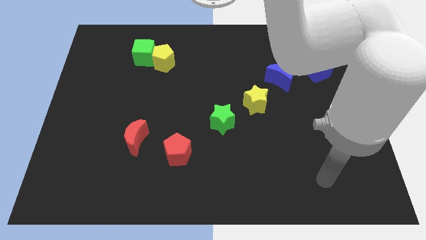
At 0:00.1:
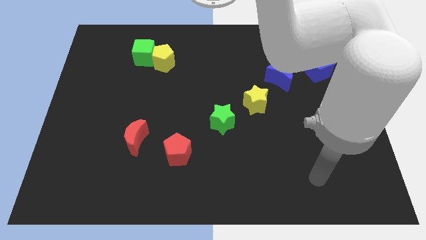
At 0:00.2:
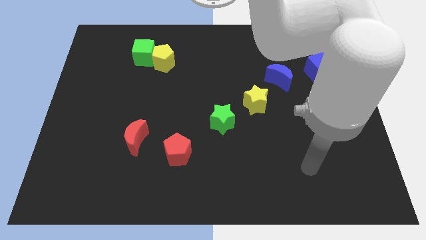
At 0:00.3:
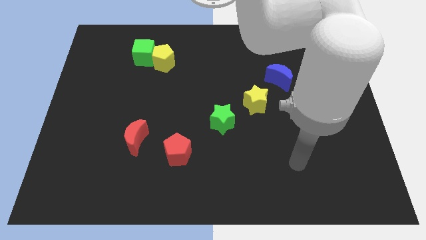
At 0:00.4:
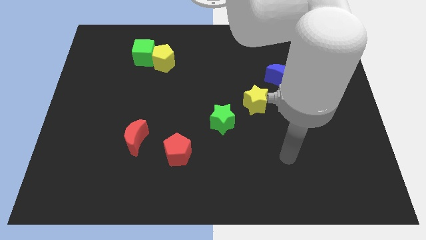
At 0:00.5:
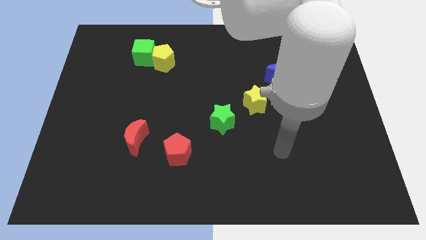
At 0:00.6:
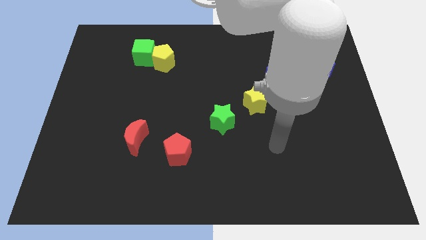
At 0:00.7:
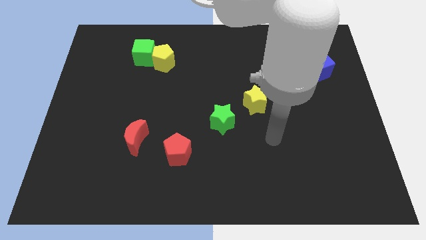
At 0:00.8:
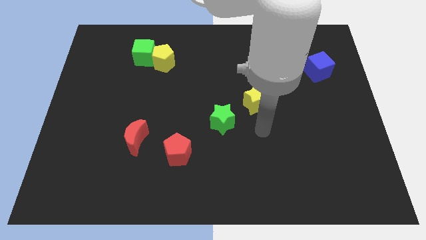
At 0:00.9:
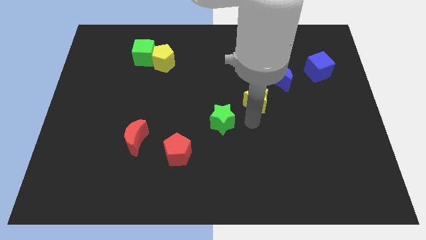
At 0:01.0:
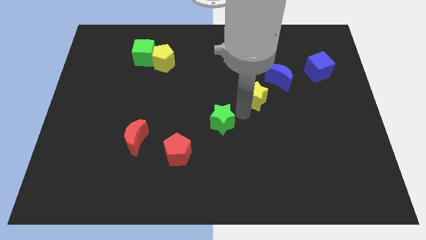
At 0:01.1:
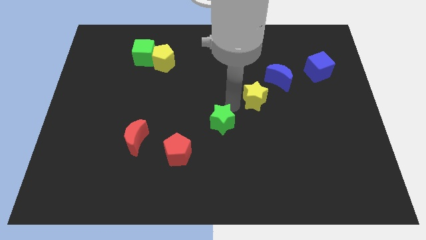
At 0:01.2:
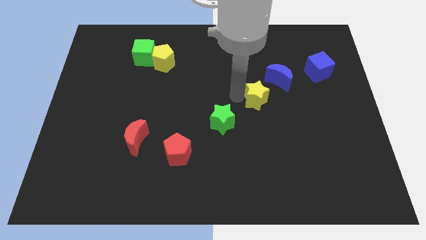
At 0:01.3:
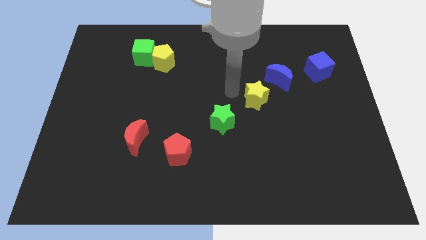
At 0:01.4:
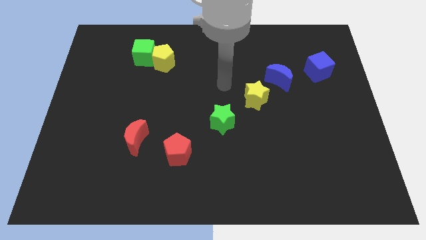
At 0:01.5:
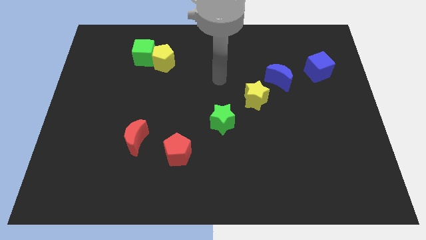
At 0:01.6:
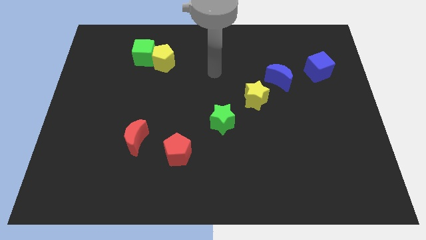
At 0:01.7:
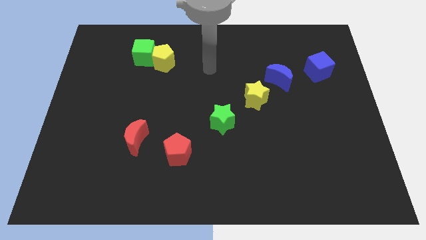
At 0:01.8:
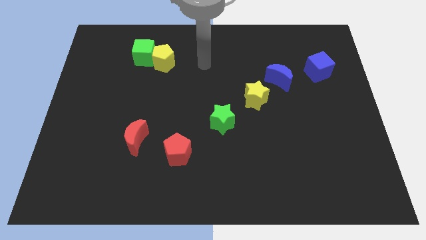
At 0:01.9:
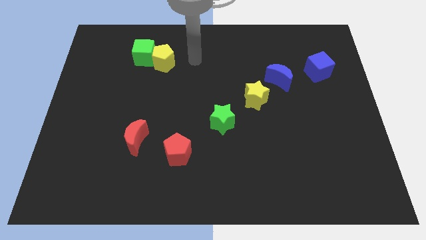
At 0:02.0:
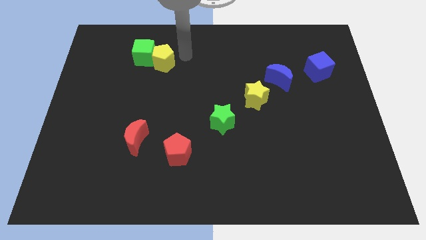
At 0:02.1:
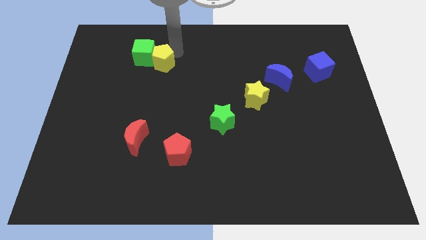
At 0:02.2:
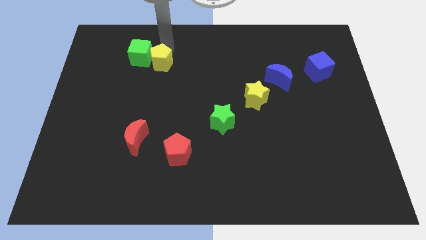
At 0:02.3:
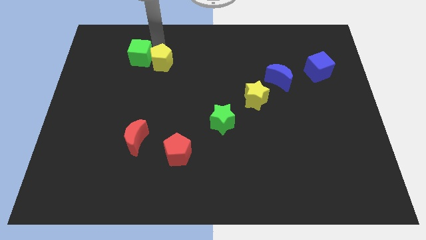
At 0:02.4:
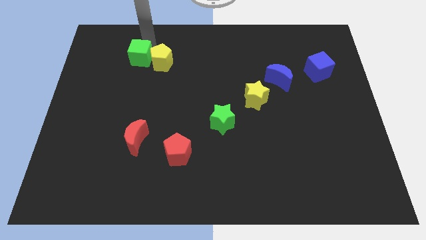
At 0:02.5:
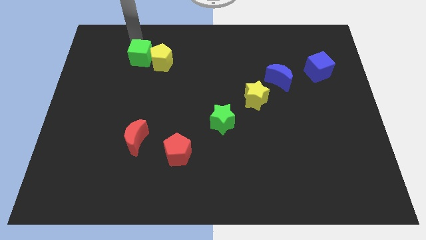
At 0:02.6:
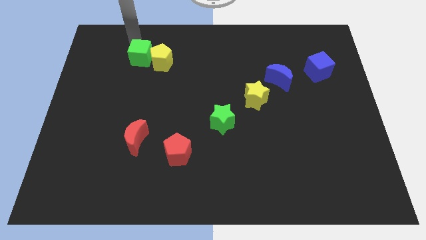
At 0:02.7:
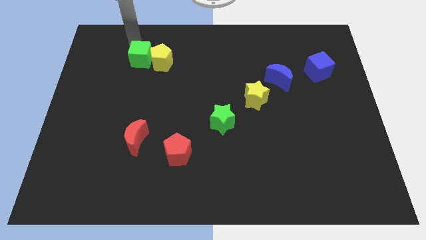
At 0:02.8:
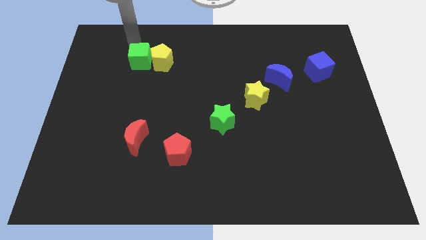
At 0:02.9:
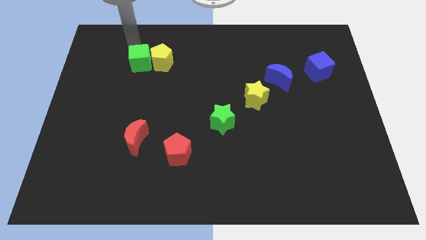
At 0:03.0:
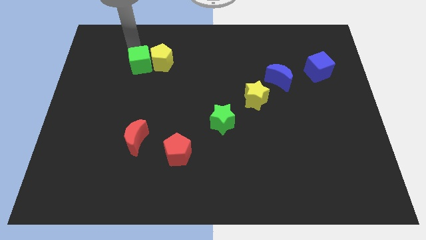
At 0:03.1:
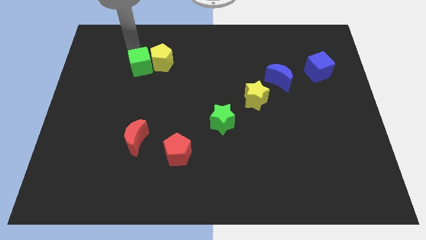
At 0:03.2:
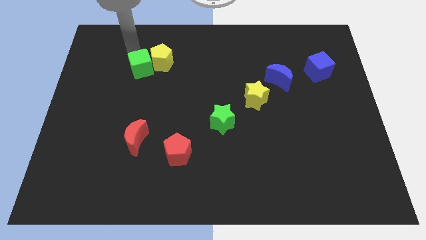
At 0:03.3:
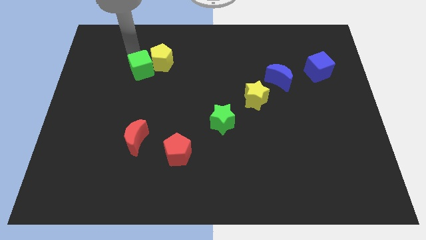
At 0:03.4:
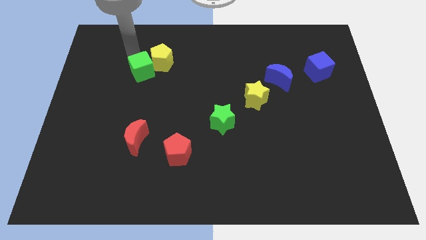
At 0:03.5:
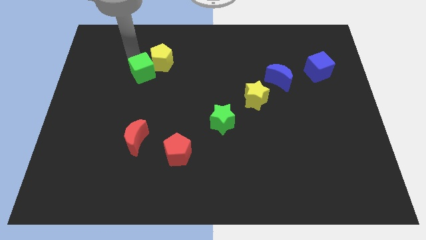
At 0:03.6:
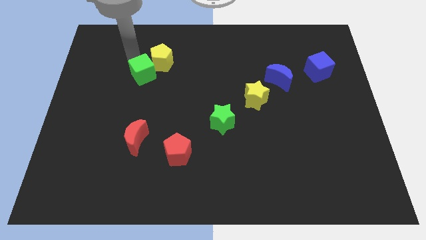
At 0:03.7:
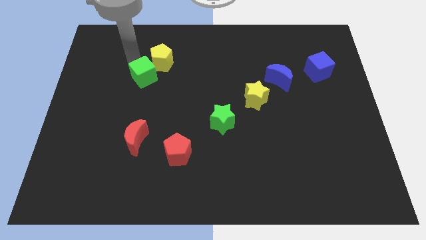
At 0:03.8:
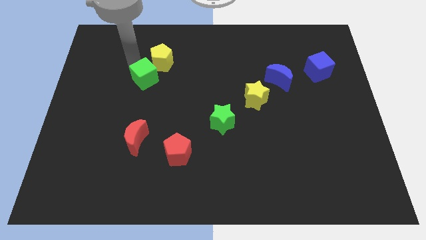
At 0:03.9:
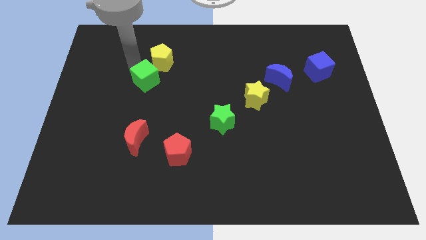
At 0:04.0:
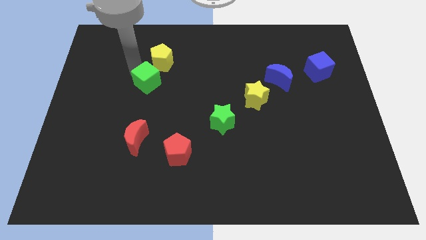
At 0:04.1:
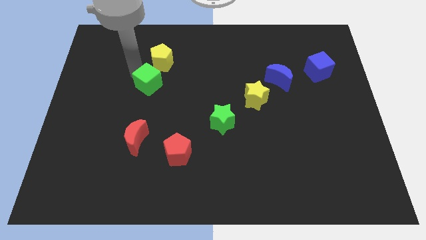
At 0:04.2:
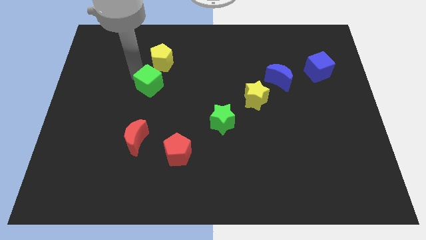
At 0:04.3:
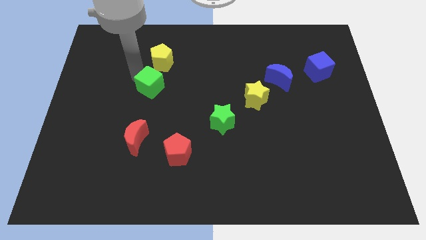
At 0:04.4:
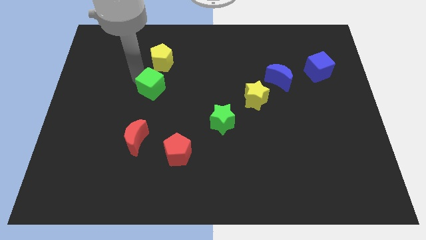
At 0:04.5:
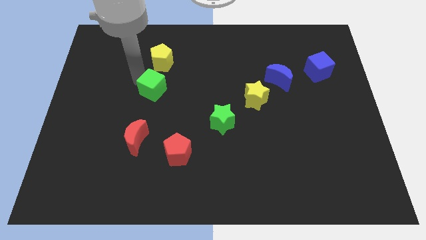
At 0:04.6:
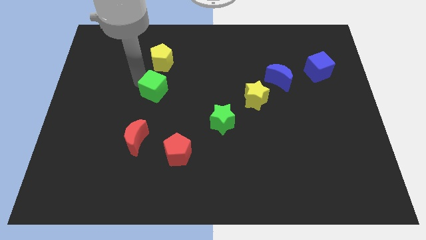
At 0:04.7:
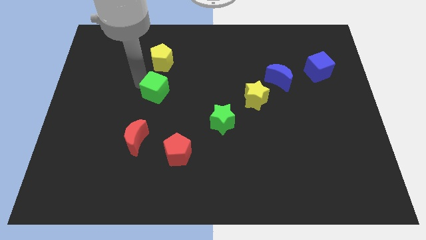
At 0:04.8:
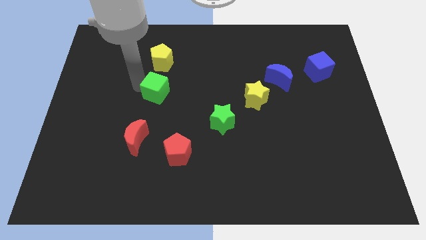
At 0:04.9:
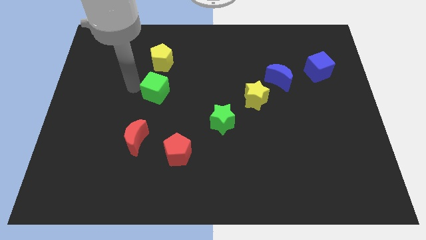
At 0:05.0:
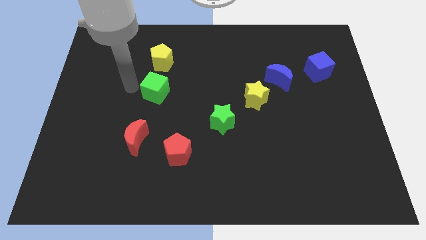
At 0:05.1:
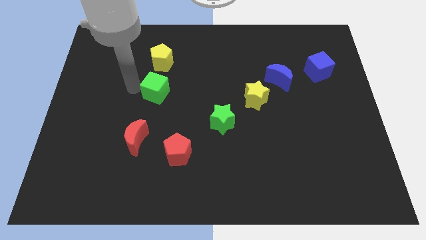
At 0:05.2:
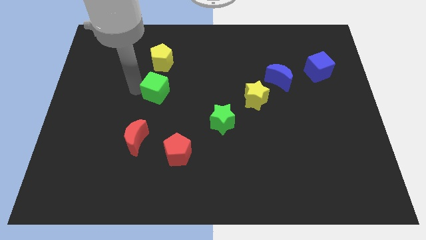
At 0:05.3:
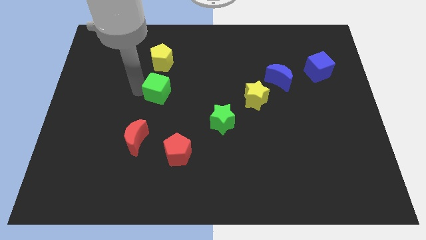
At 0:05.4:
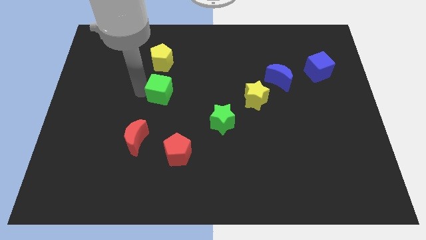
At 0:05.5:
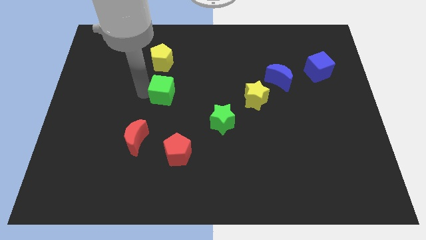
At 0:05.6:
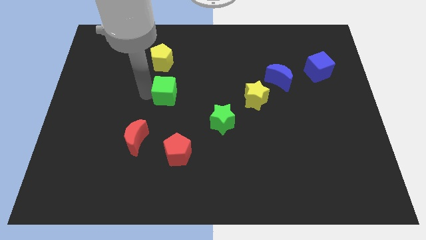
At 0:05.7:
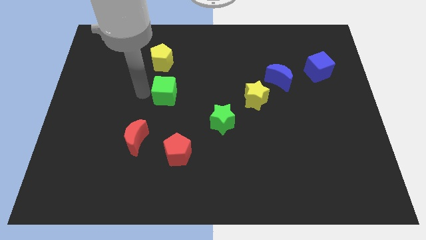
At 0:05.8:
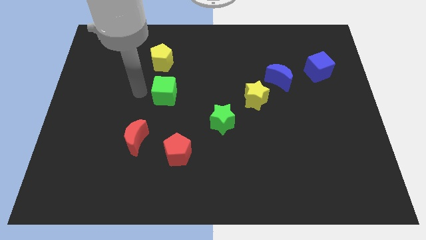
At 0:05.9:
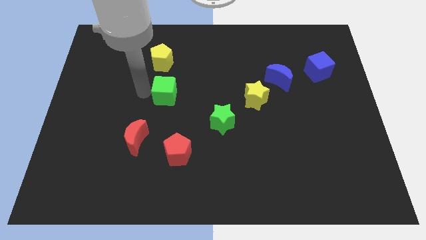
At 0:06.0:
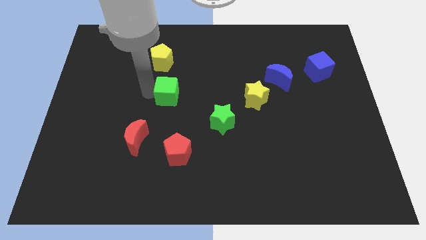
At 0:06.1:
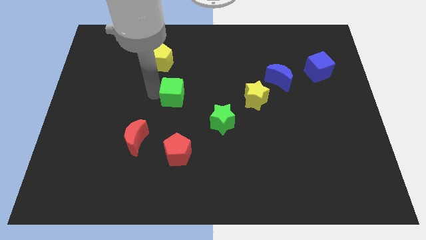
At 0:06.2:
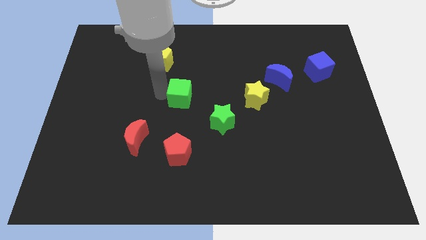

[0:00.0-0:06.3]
push the green cube to the top left side of the green star
